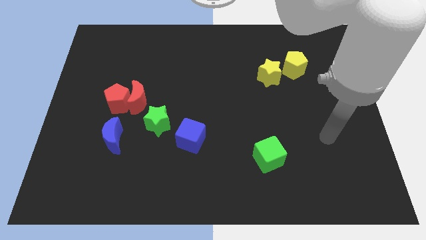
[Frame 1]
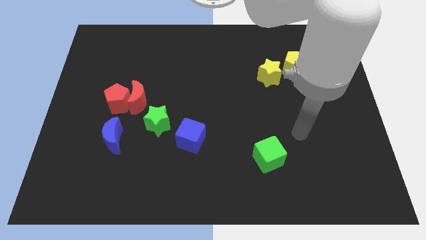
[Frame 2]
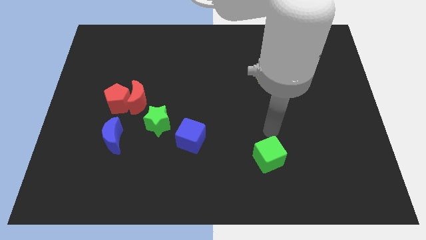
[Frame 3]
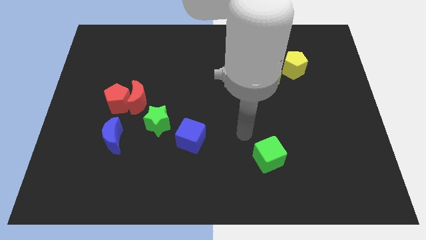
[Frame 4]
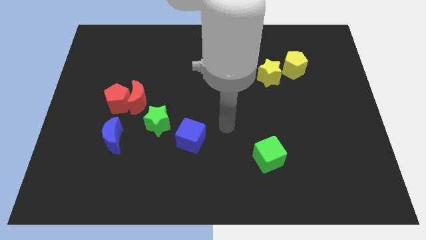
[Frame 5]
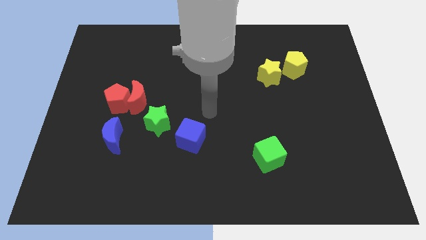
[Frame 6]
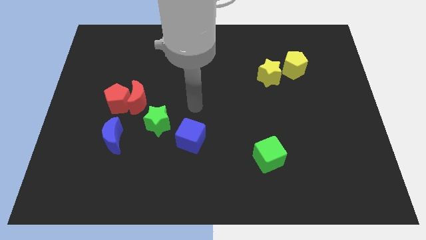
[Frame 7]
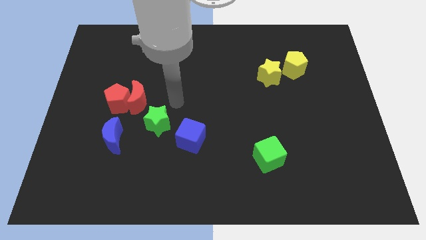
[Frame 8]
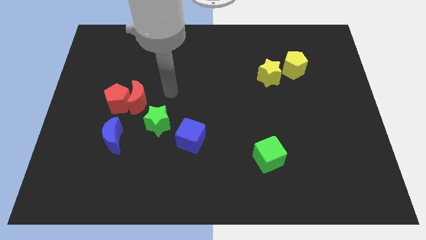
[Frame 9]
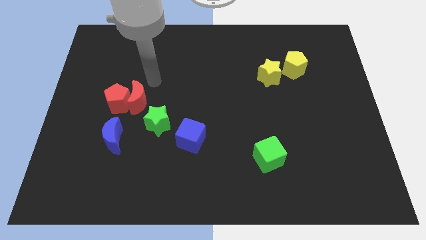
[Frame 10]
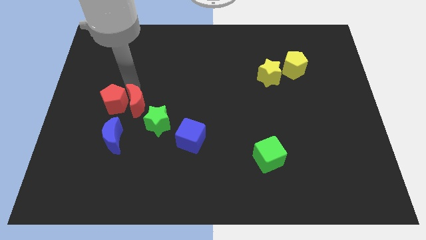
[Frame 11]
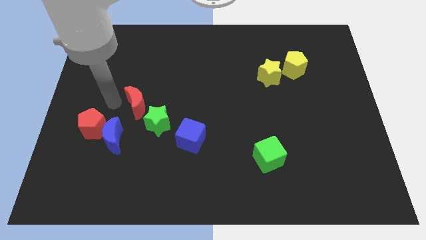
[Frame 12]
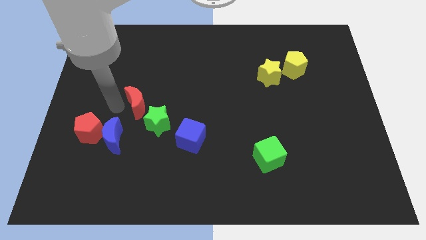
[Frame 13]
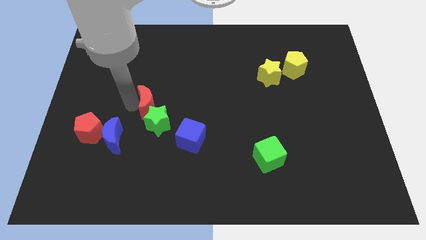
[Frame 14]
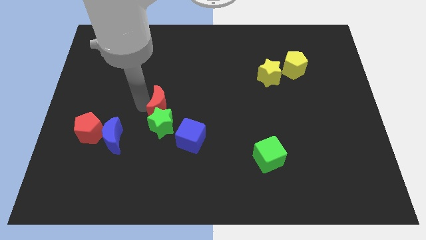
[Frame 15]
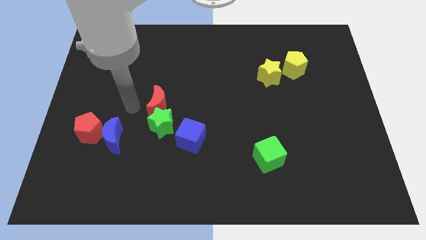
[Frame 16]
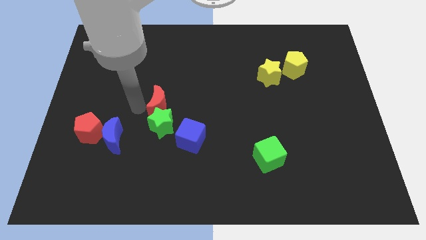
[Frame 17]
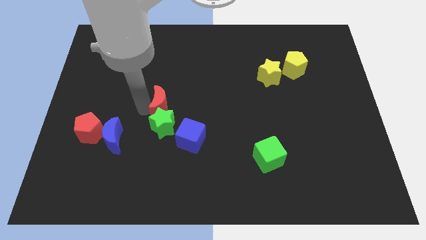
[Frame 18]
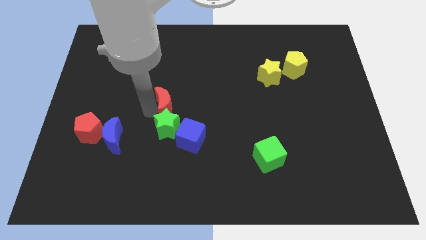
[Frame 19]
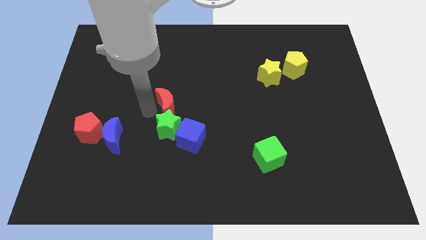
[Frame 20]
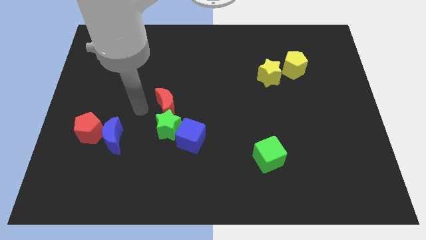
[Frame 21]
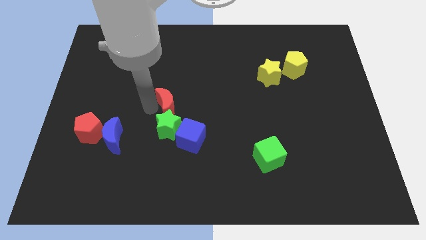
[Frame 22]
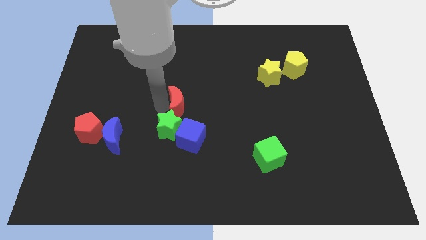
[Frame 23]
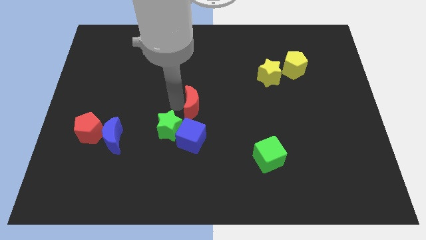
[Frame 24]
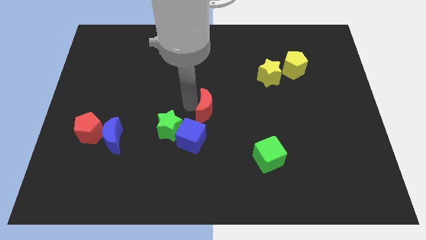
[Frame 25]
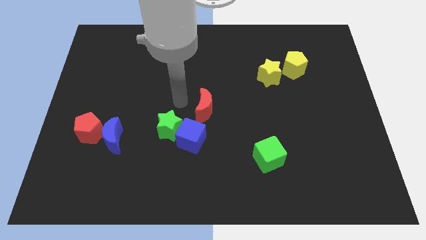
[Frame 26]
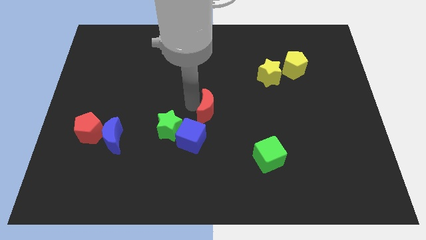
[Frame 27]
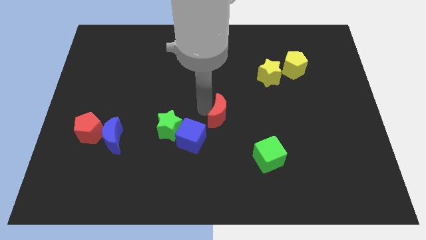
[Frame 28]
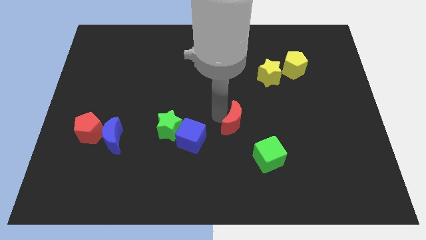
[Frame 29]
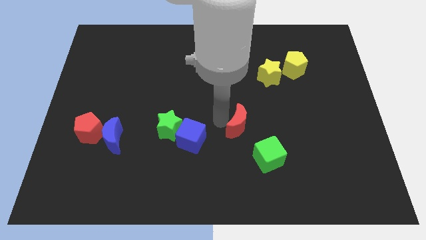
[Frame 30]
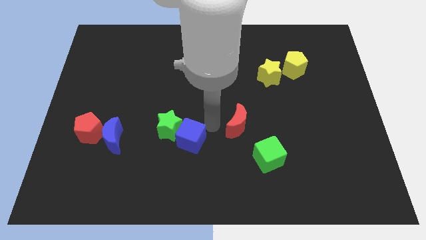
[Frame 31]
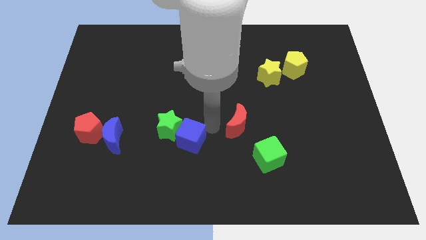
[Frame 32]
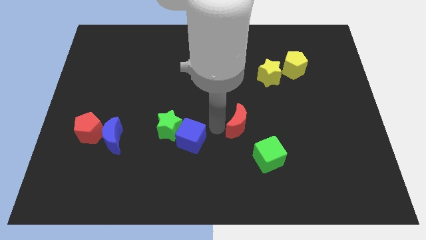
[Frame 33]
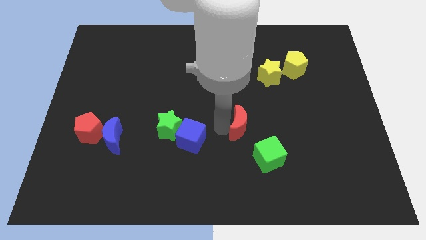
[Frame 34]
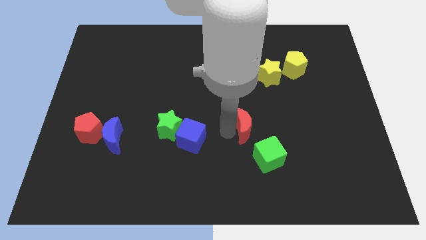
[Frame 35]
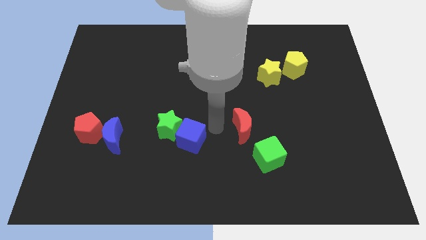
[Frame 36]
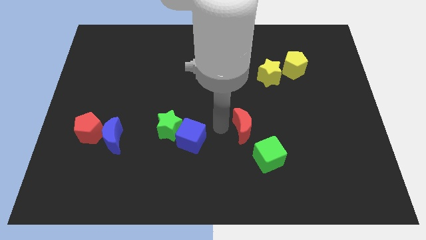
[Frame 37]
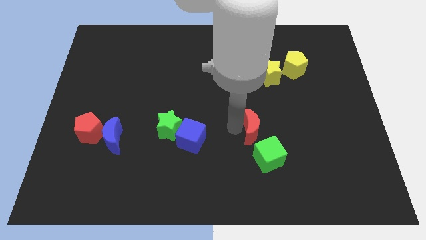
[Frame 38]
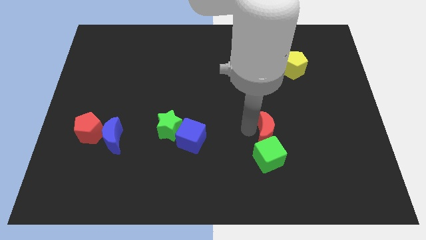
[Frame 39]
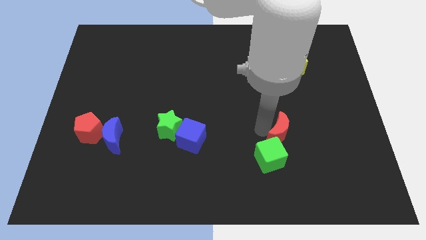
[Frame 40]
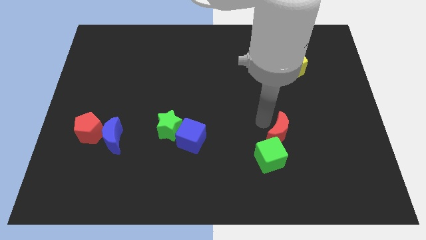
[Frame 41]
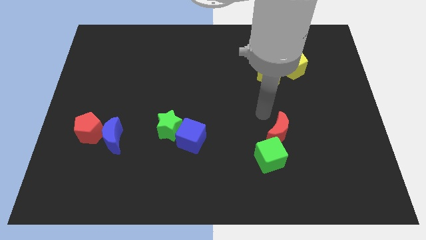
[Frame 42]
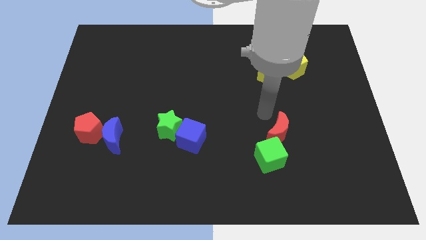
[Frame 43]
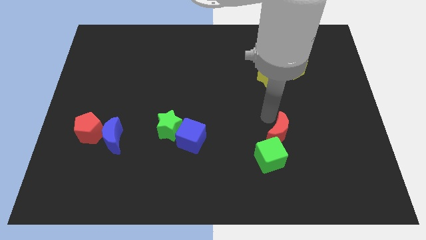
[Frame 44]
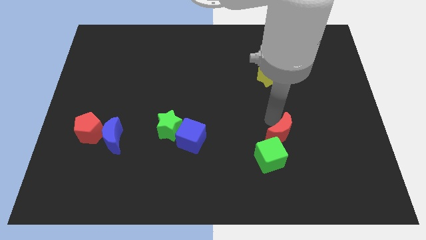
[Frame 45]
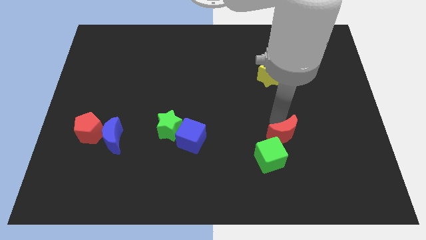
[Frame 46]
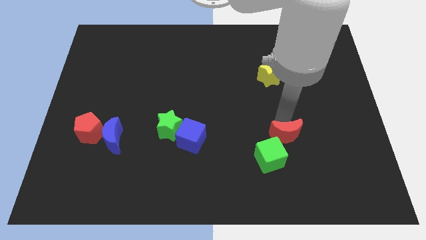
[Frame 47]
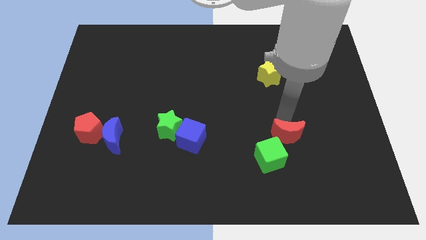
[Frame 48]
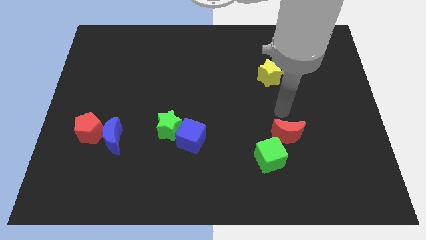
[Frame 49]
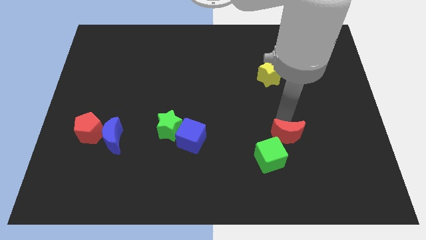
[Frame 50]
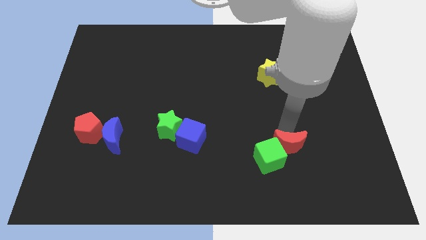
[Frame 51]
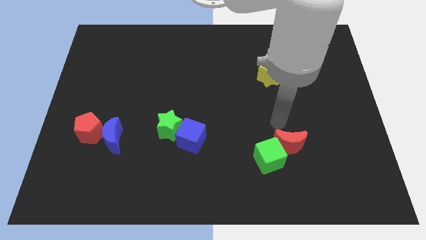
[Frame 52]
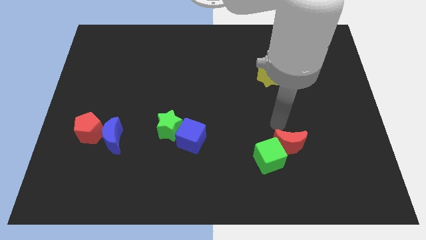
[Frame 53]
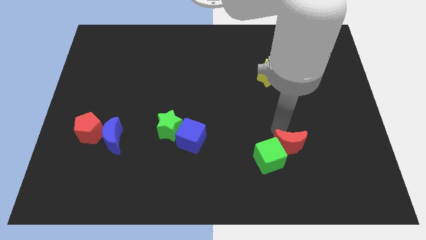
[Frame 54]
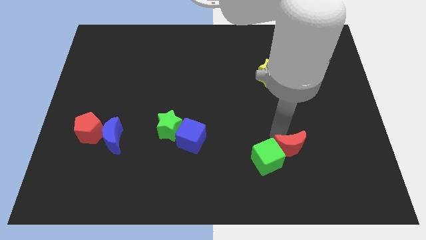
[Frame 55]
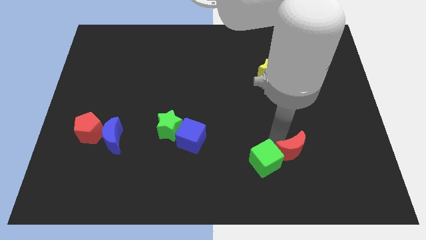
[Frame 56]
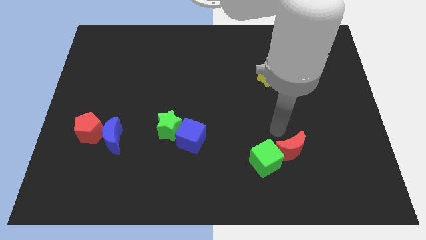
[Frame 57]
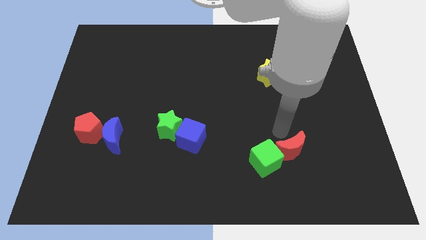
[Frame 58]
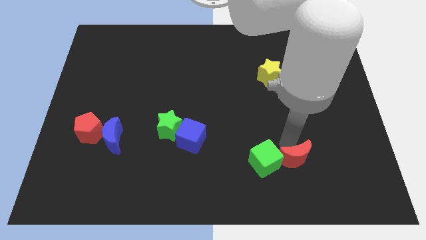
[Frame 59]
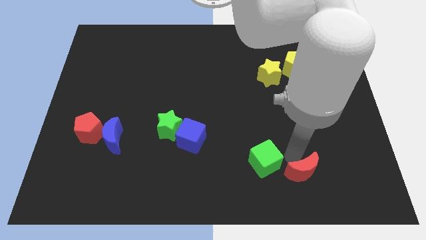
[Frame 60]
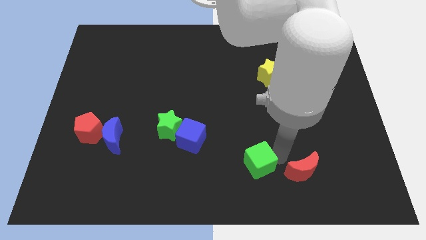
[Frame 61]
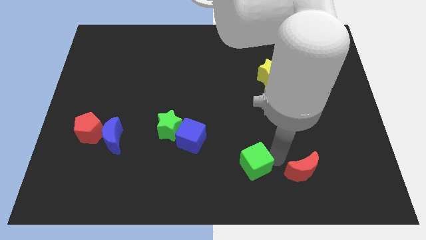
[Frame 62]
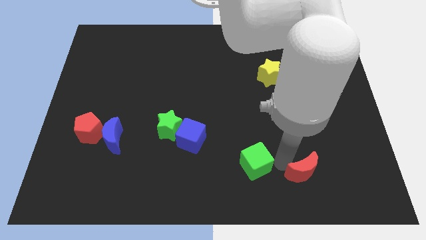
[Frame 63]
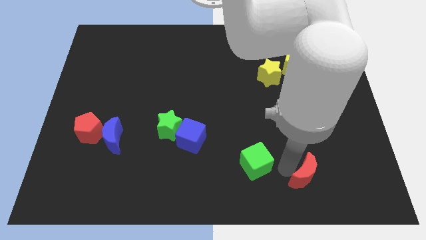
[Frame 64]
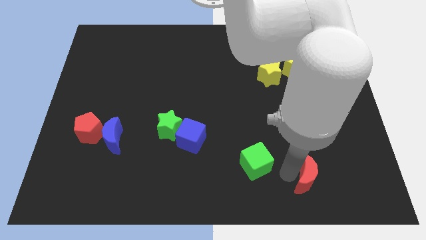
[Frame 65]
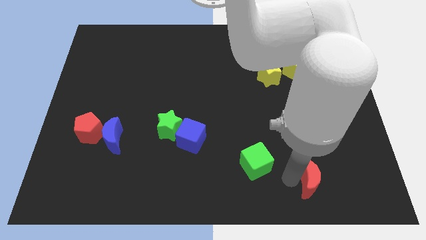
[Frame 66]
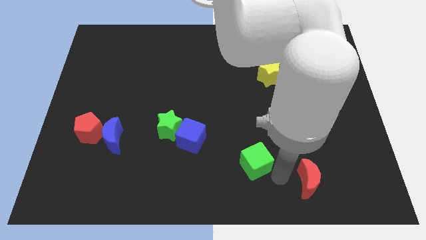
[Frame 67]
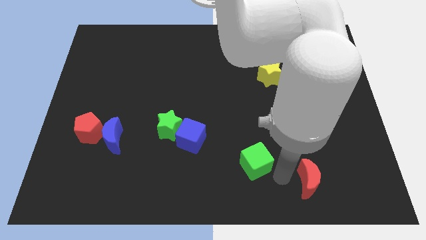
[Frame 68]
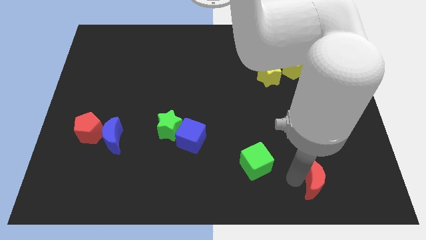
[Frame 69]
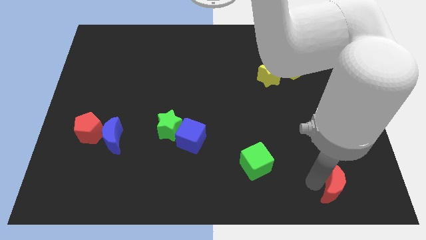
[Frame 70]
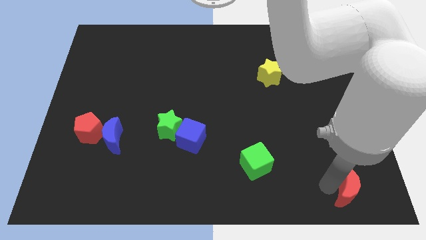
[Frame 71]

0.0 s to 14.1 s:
move the red moon to the bottom right corner
